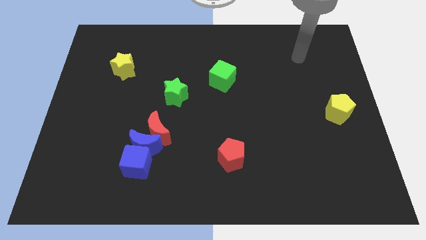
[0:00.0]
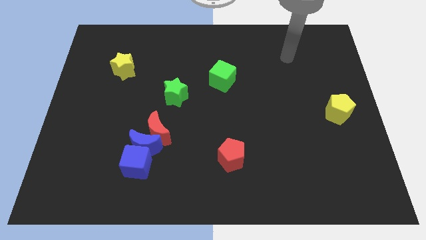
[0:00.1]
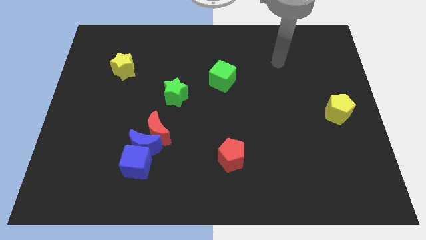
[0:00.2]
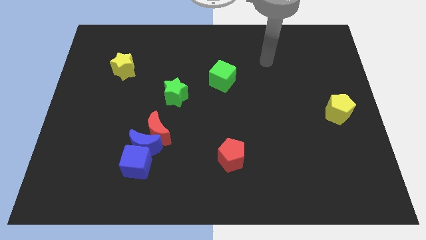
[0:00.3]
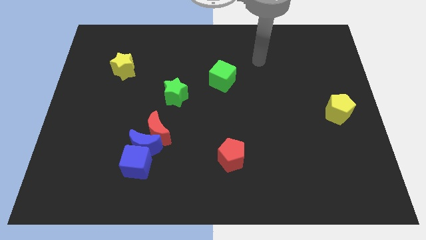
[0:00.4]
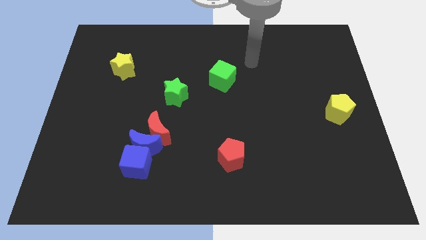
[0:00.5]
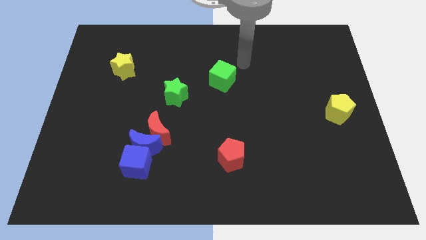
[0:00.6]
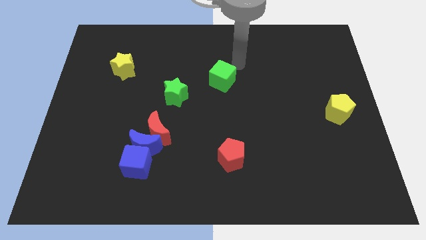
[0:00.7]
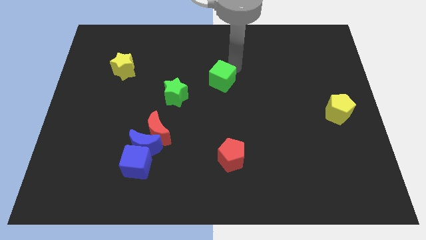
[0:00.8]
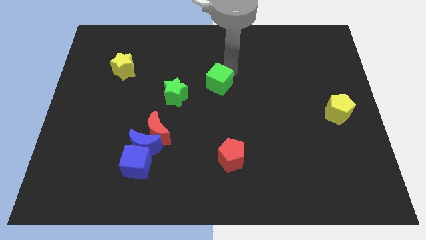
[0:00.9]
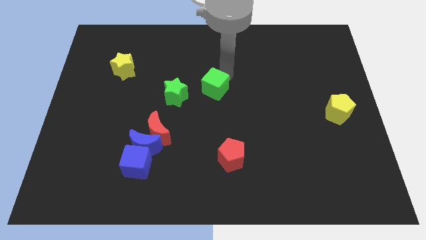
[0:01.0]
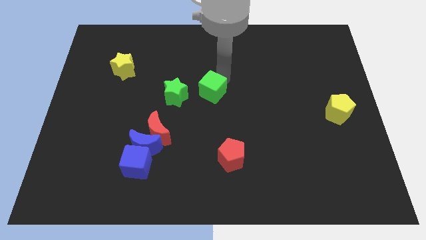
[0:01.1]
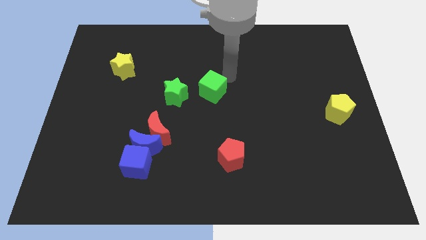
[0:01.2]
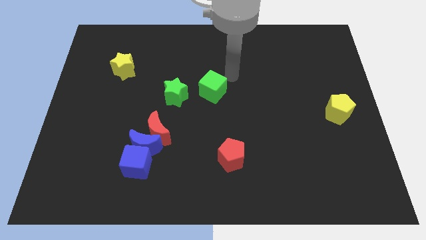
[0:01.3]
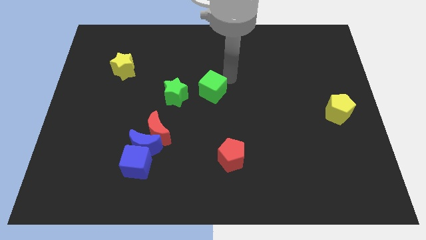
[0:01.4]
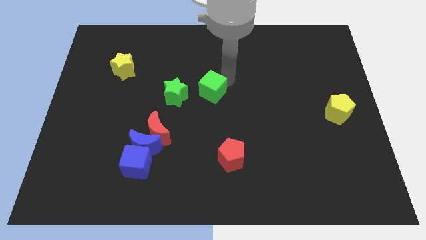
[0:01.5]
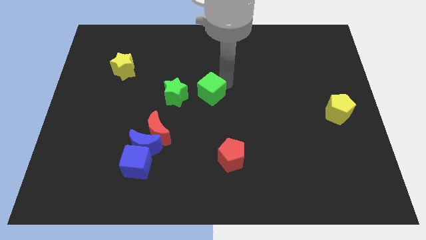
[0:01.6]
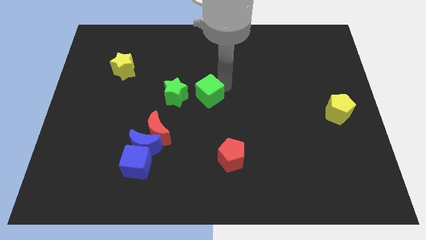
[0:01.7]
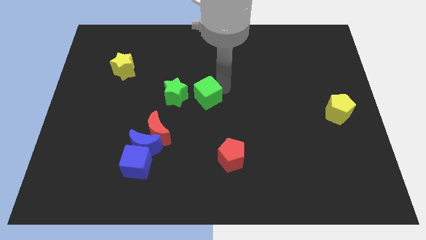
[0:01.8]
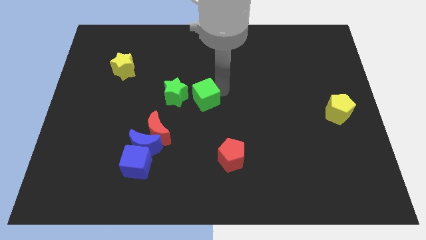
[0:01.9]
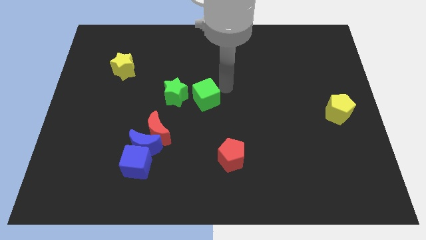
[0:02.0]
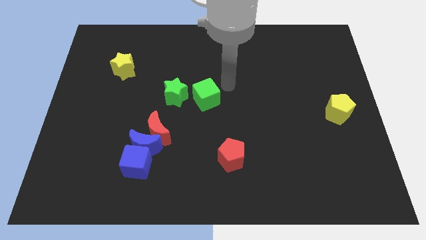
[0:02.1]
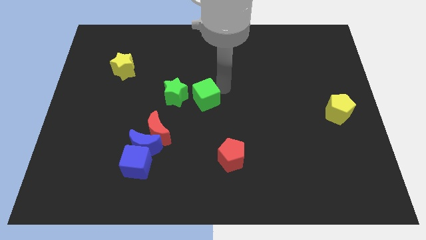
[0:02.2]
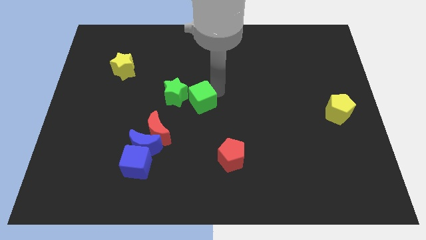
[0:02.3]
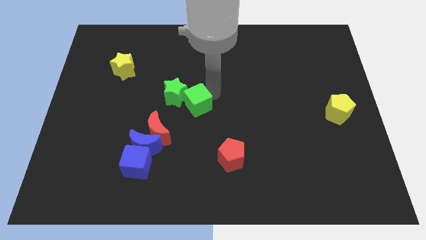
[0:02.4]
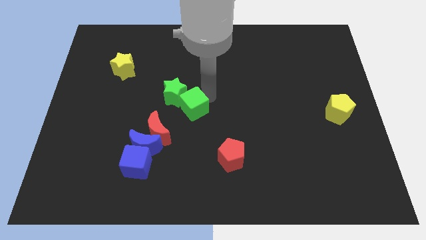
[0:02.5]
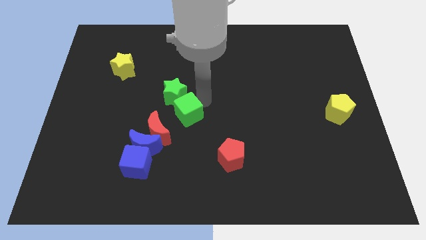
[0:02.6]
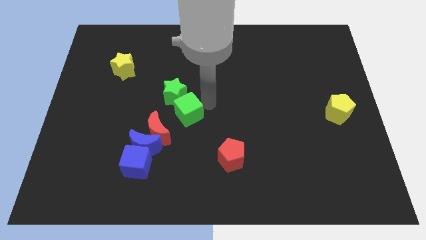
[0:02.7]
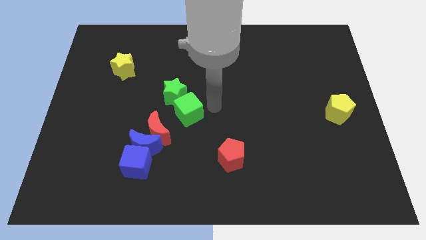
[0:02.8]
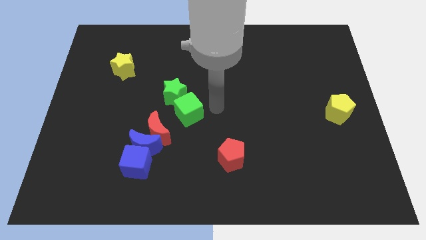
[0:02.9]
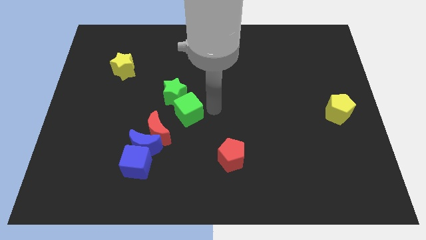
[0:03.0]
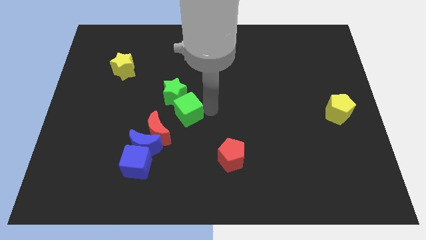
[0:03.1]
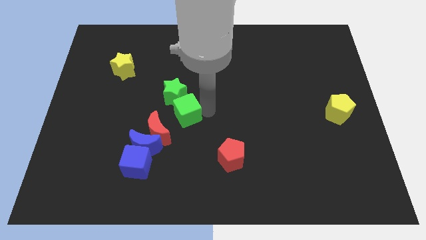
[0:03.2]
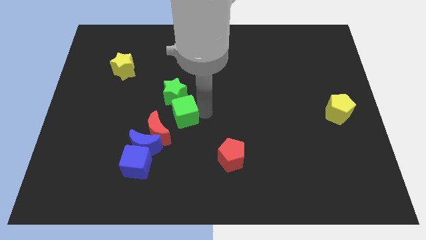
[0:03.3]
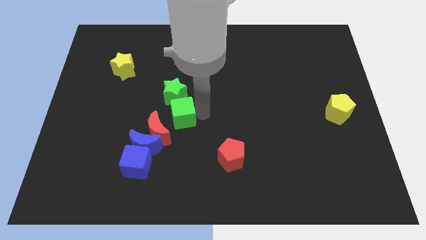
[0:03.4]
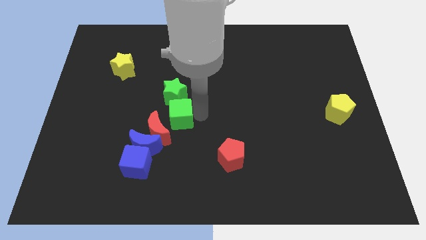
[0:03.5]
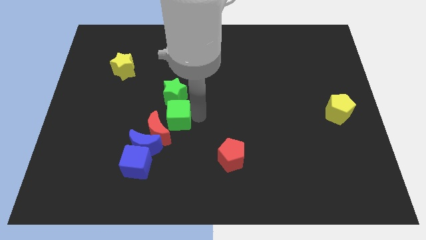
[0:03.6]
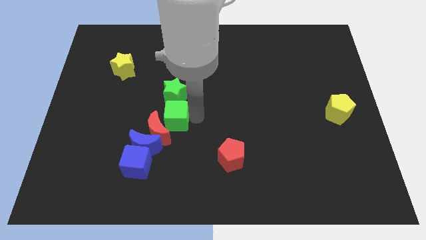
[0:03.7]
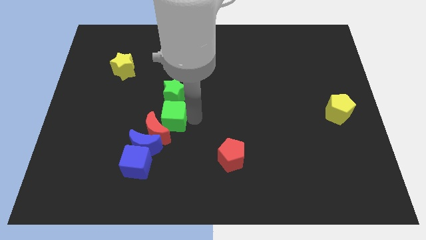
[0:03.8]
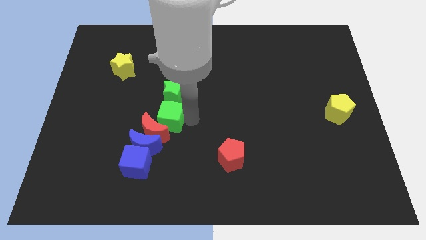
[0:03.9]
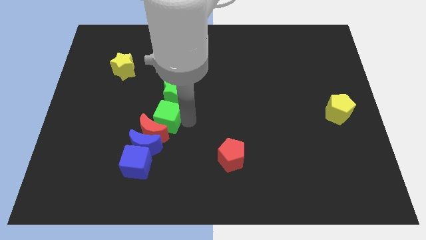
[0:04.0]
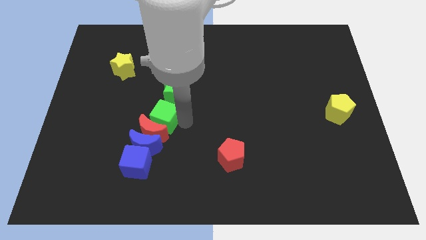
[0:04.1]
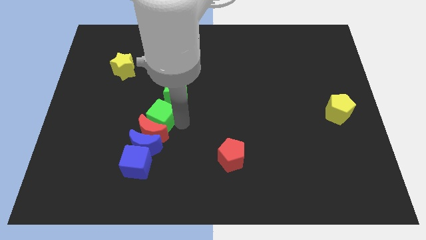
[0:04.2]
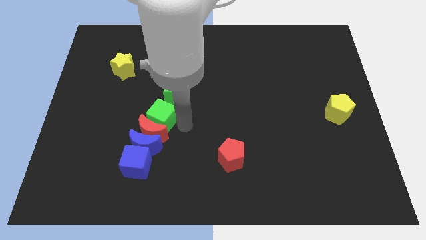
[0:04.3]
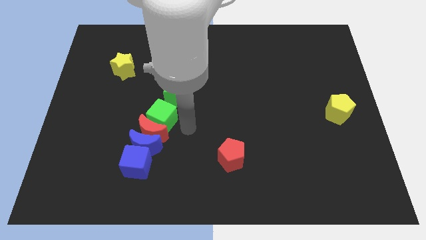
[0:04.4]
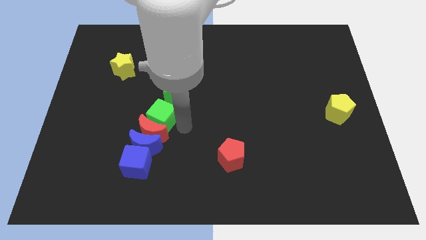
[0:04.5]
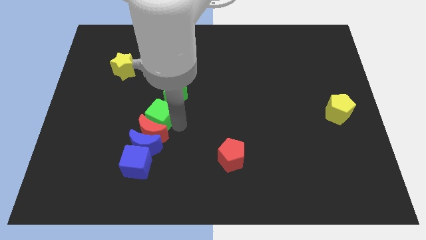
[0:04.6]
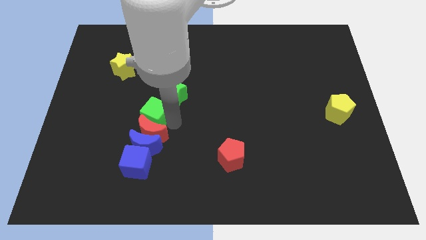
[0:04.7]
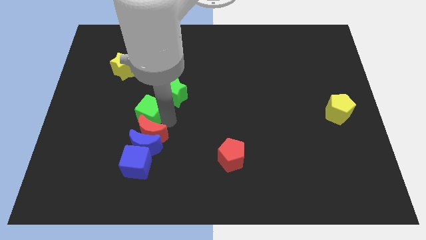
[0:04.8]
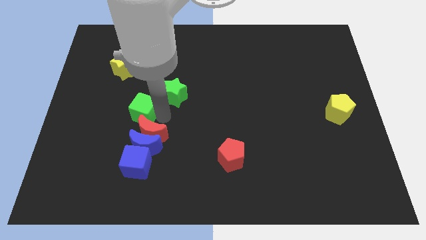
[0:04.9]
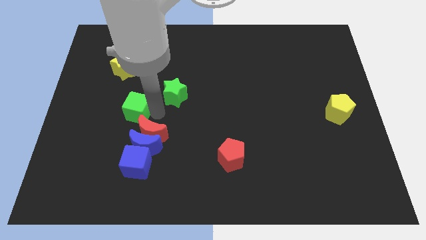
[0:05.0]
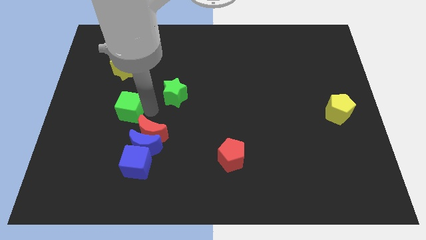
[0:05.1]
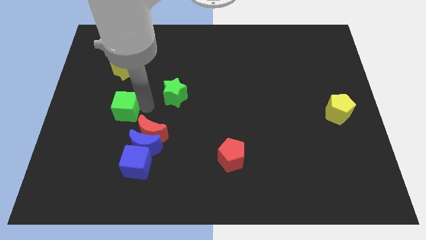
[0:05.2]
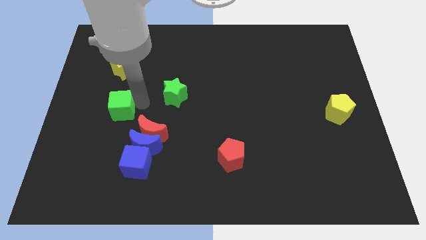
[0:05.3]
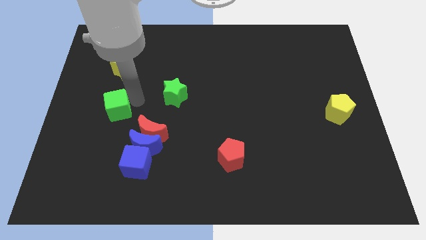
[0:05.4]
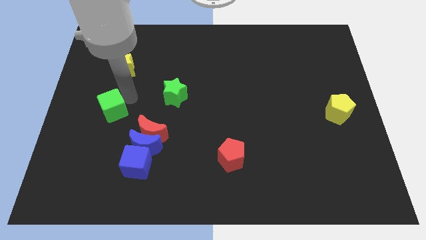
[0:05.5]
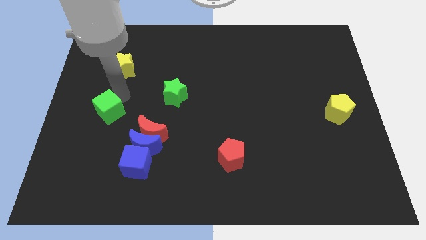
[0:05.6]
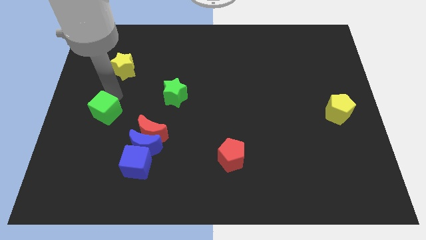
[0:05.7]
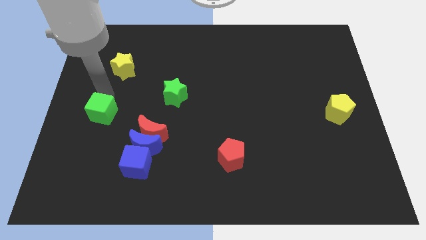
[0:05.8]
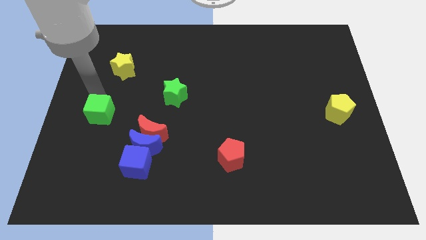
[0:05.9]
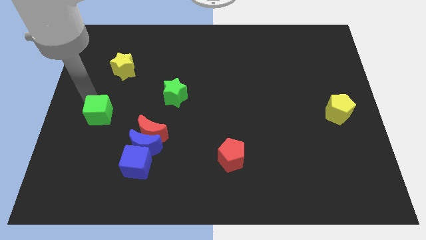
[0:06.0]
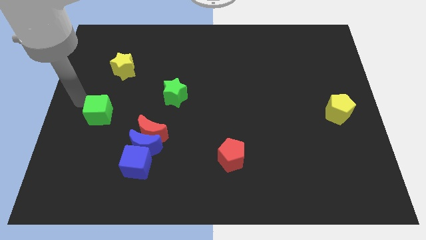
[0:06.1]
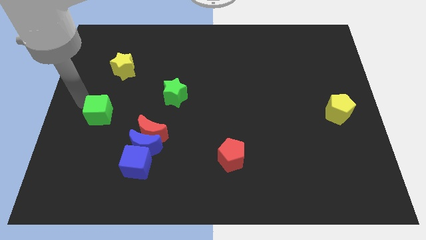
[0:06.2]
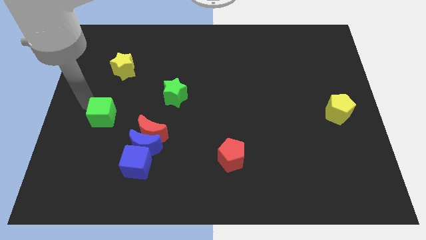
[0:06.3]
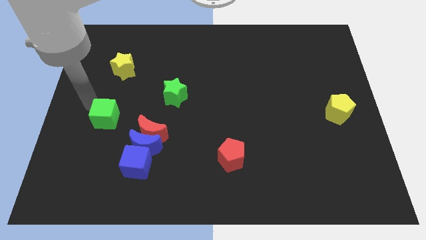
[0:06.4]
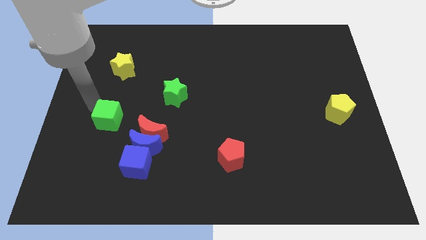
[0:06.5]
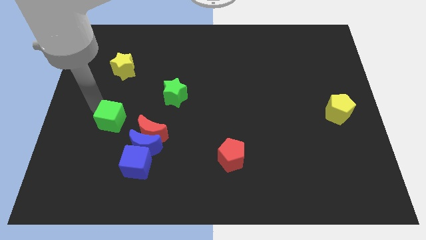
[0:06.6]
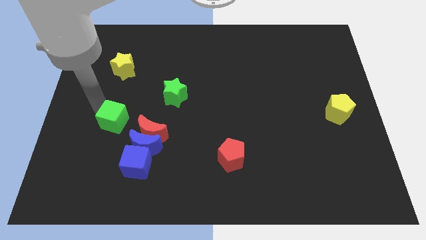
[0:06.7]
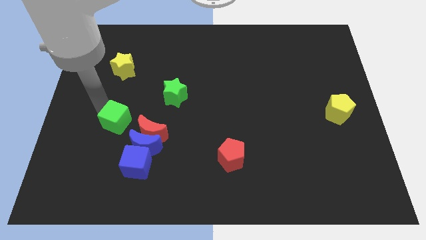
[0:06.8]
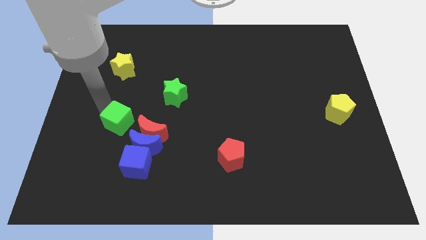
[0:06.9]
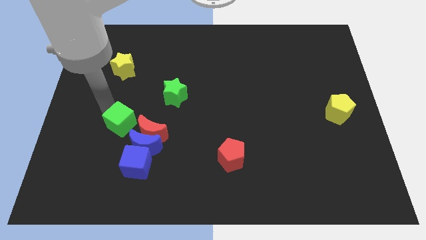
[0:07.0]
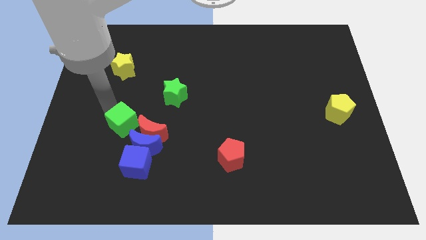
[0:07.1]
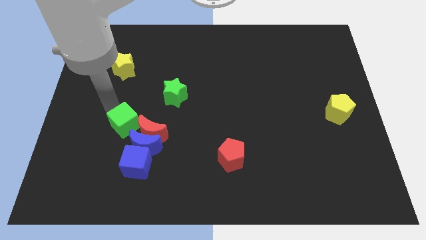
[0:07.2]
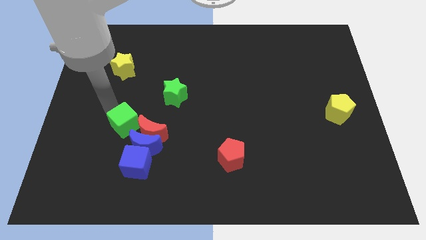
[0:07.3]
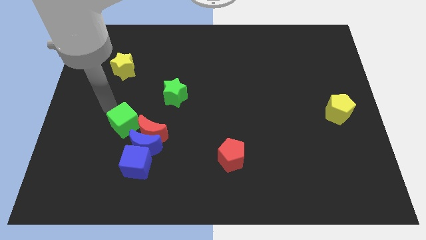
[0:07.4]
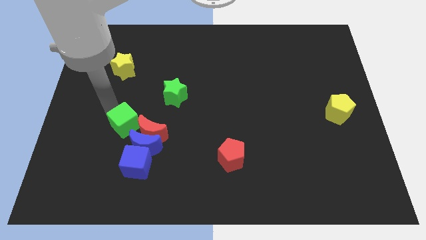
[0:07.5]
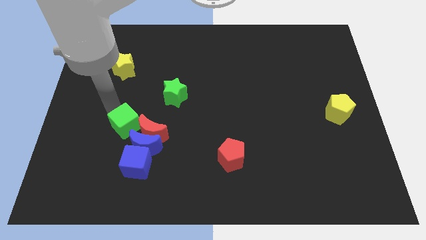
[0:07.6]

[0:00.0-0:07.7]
push the green cube diagonally up and to the left of the blue cube
